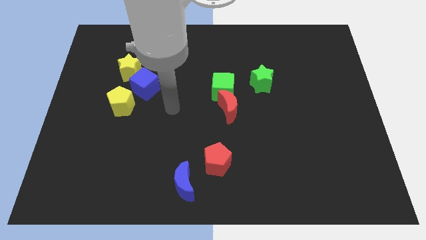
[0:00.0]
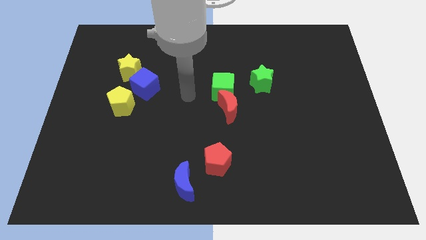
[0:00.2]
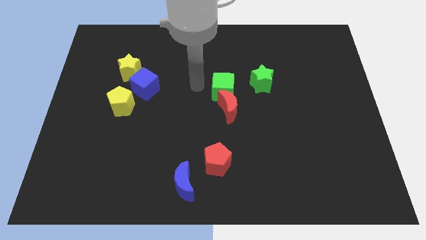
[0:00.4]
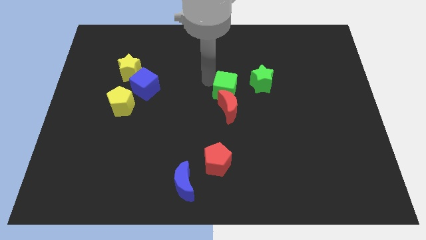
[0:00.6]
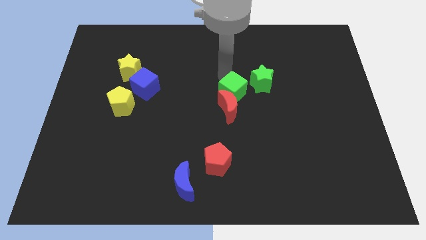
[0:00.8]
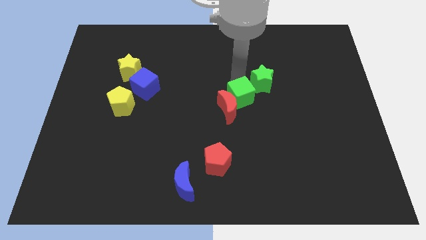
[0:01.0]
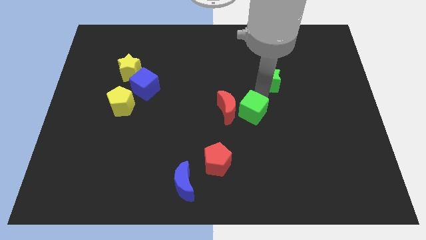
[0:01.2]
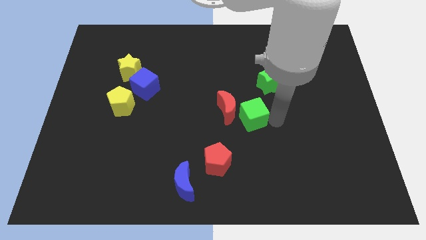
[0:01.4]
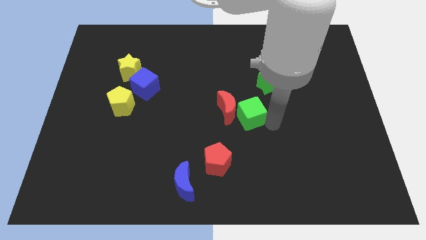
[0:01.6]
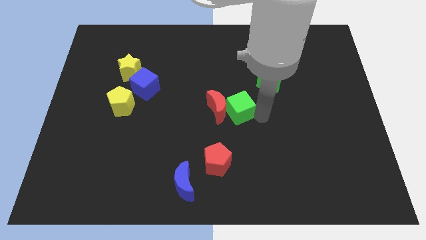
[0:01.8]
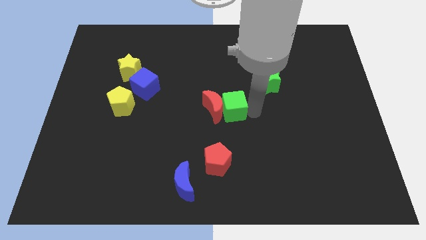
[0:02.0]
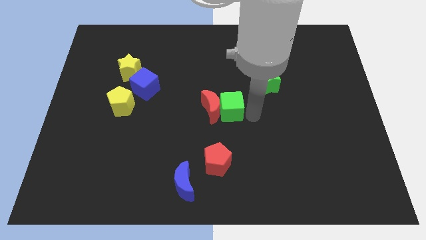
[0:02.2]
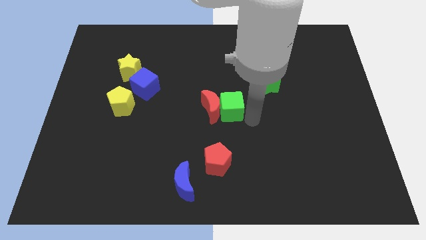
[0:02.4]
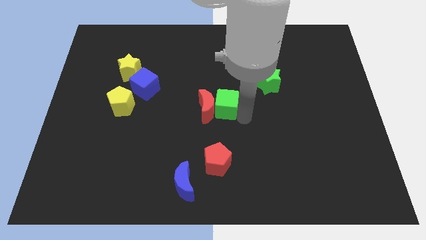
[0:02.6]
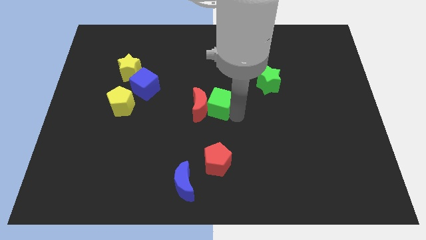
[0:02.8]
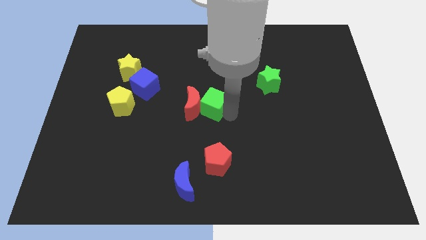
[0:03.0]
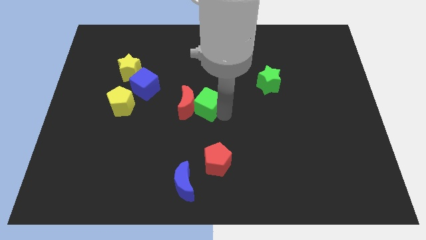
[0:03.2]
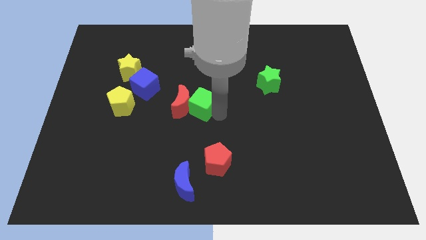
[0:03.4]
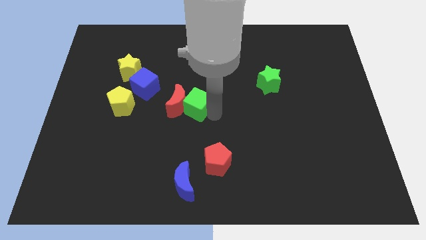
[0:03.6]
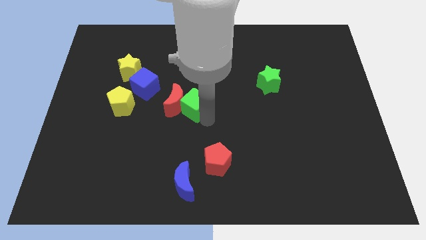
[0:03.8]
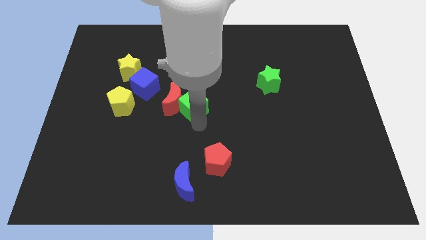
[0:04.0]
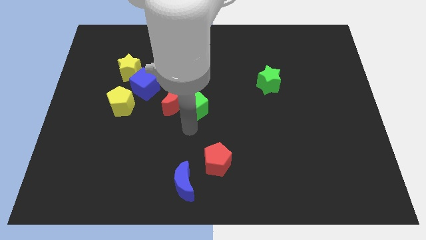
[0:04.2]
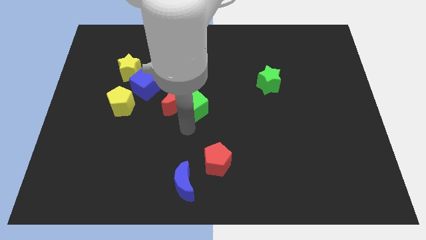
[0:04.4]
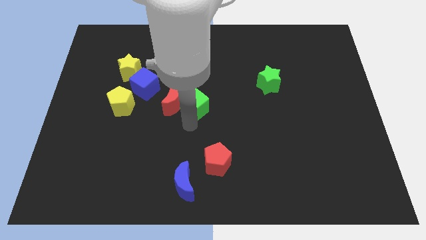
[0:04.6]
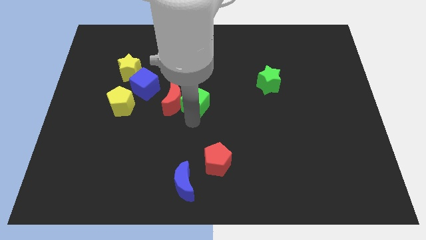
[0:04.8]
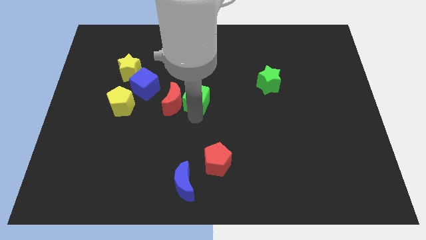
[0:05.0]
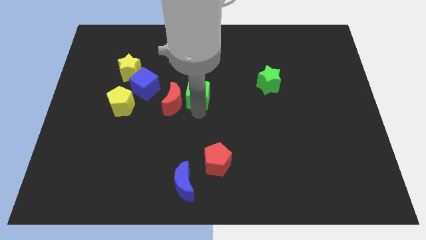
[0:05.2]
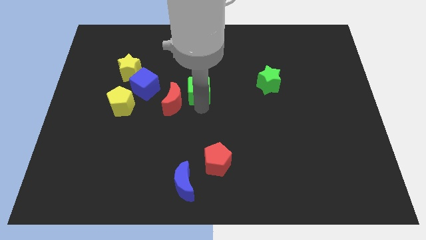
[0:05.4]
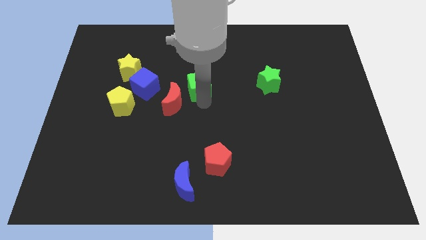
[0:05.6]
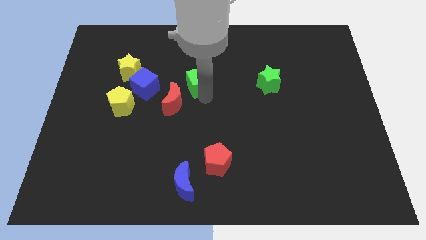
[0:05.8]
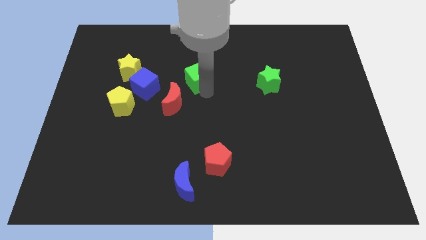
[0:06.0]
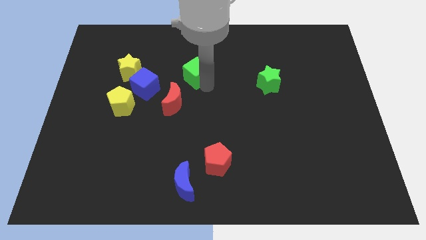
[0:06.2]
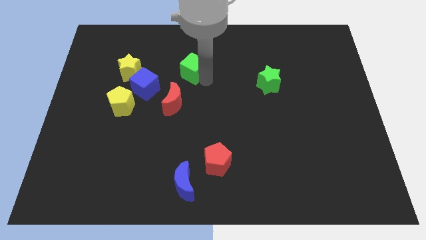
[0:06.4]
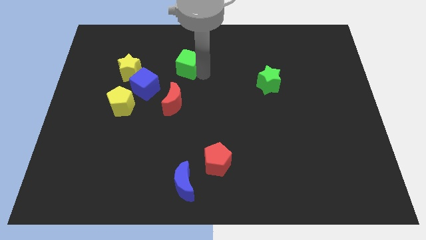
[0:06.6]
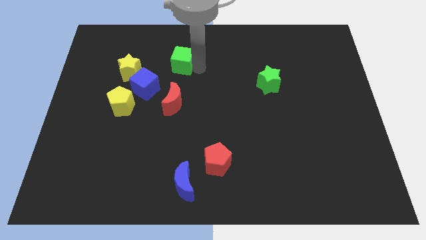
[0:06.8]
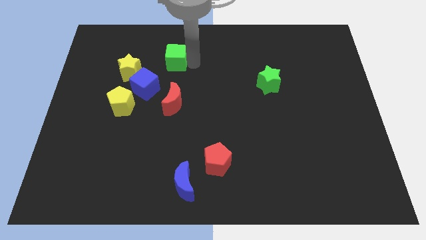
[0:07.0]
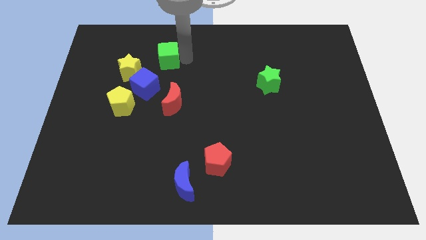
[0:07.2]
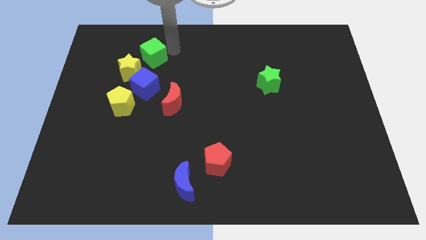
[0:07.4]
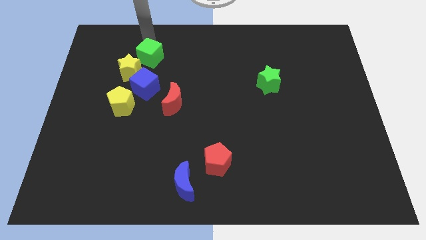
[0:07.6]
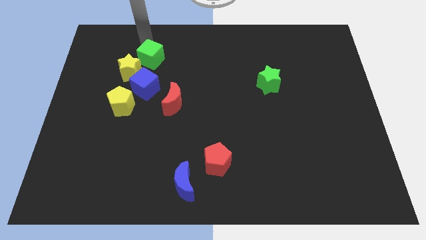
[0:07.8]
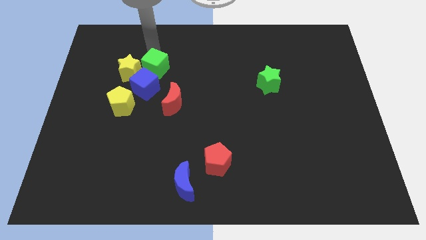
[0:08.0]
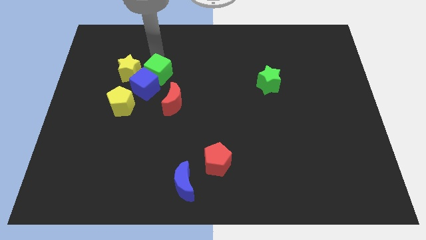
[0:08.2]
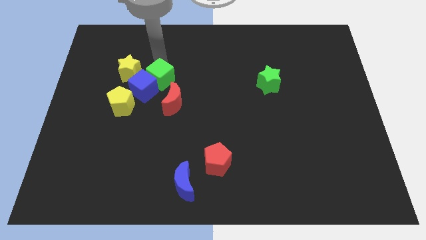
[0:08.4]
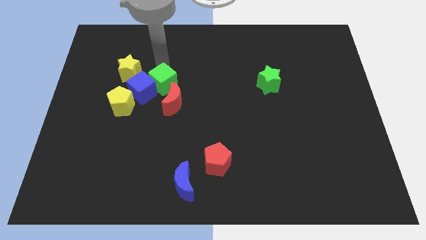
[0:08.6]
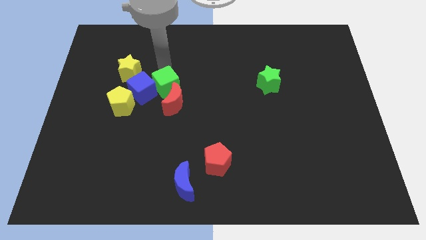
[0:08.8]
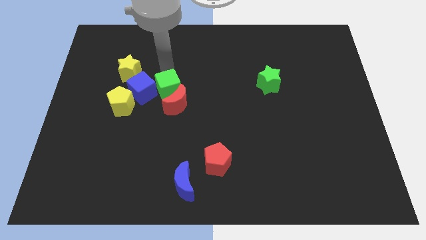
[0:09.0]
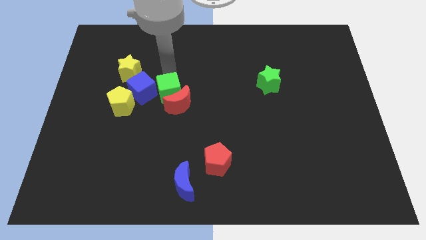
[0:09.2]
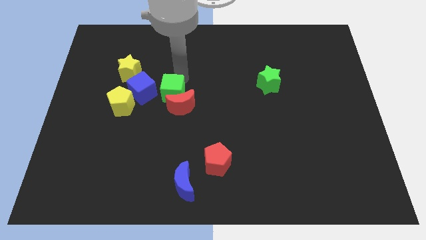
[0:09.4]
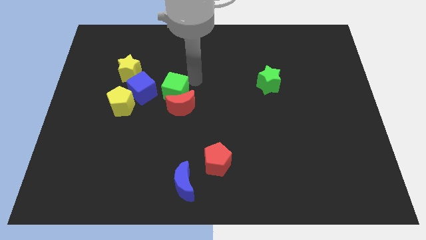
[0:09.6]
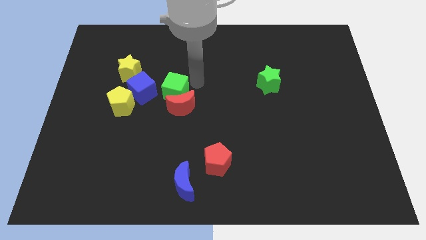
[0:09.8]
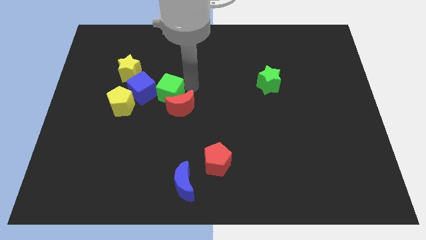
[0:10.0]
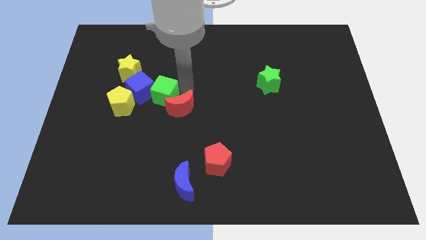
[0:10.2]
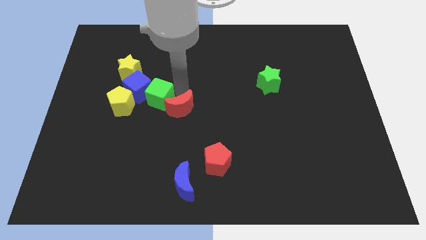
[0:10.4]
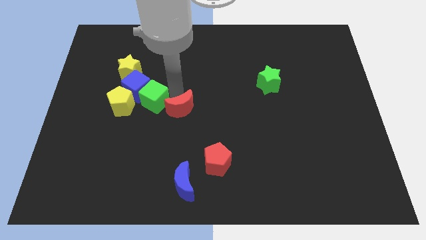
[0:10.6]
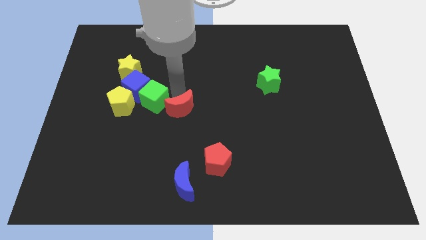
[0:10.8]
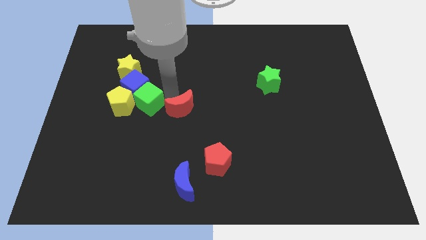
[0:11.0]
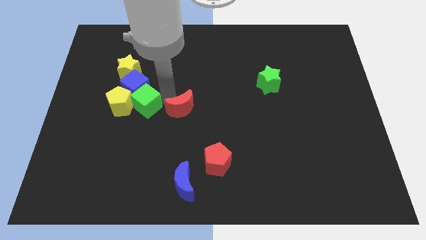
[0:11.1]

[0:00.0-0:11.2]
push the green cube to the yellow pentagon

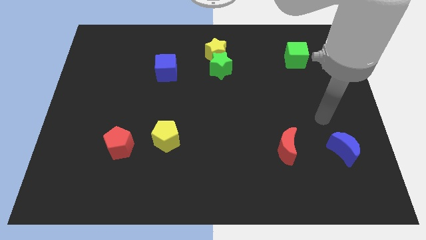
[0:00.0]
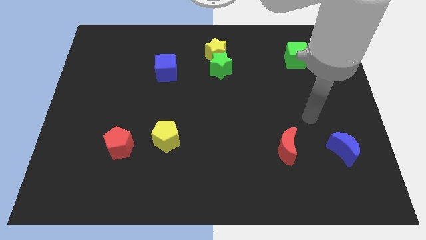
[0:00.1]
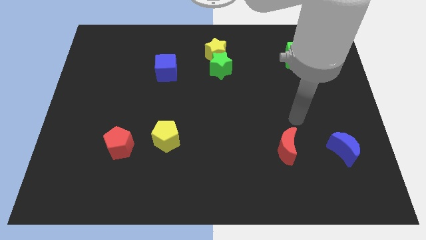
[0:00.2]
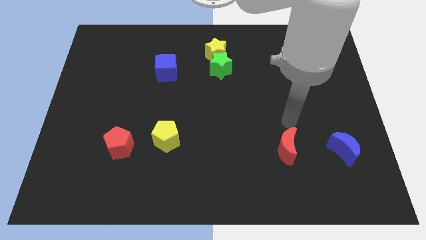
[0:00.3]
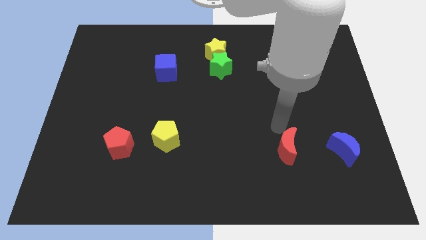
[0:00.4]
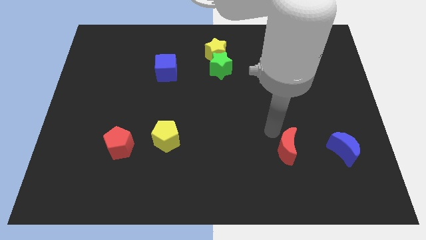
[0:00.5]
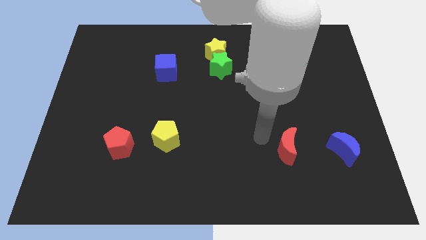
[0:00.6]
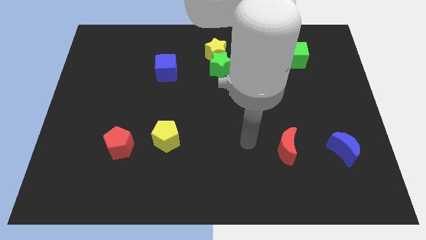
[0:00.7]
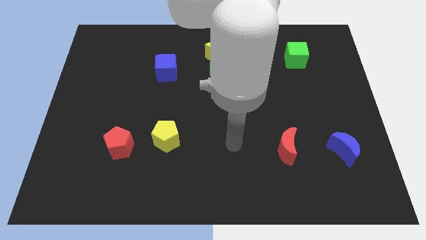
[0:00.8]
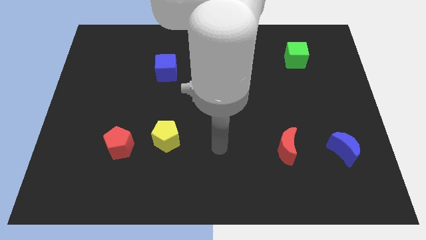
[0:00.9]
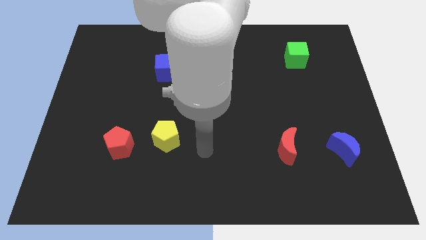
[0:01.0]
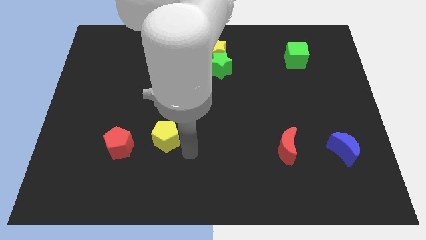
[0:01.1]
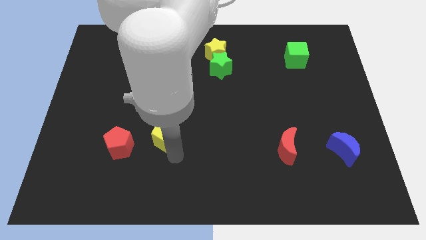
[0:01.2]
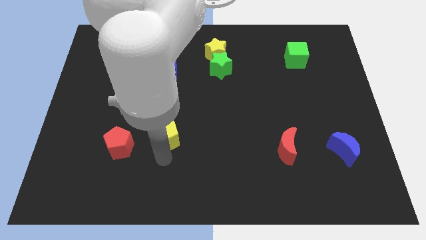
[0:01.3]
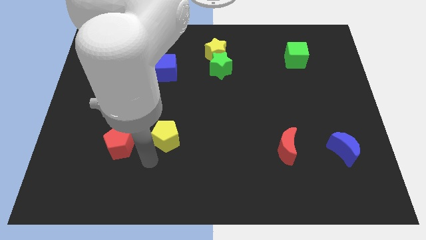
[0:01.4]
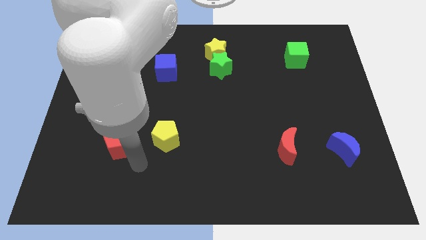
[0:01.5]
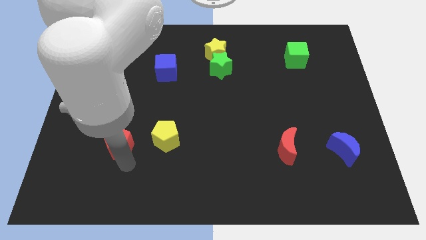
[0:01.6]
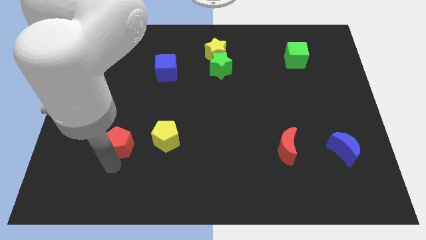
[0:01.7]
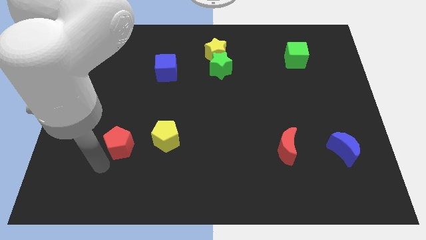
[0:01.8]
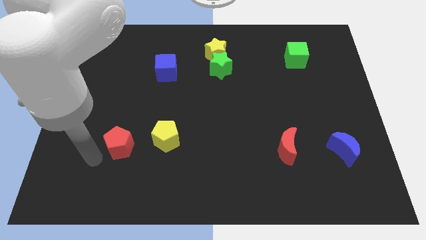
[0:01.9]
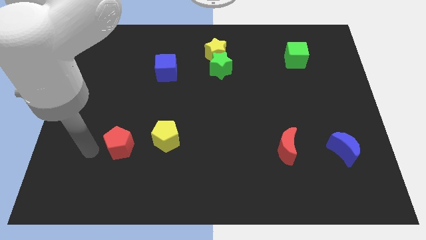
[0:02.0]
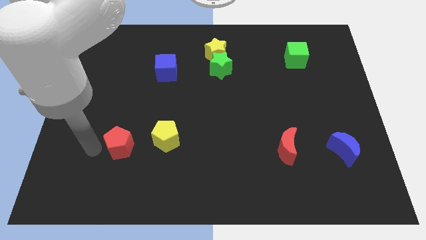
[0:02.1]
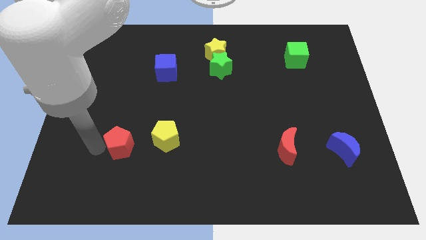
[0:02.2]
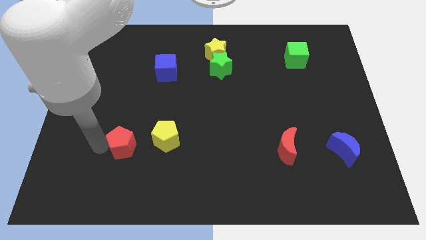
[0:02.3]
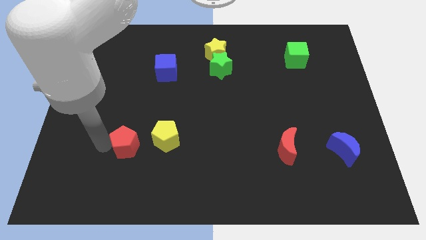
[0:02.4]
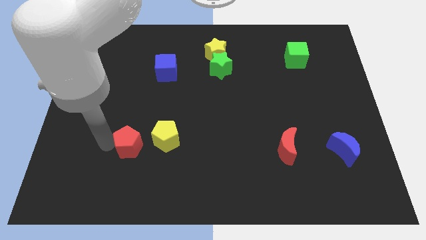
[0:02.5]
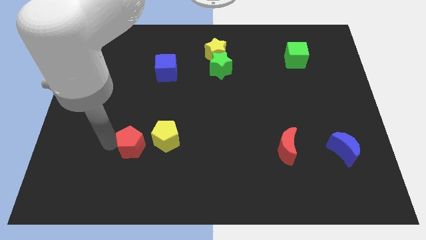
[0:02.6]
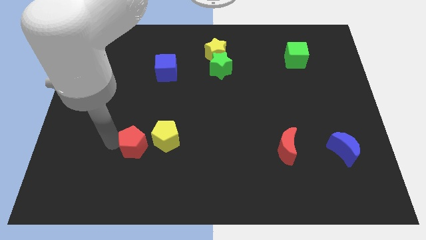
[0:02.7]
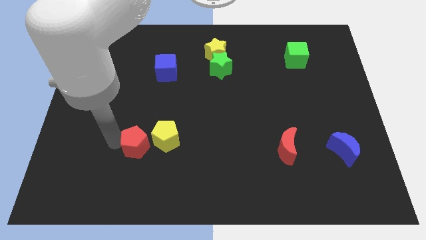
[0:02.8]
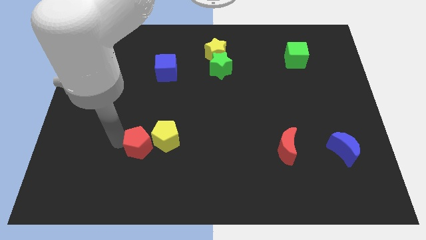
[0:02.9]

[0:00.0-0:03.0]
push the red pentagon next to the yellow pentagon
